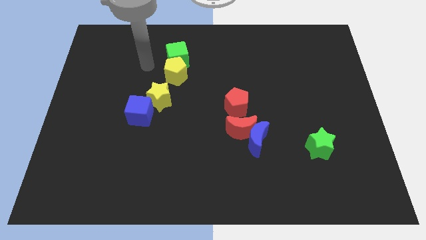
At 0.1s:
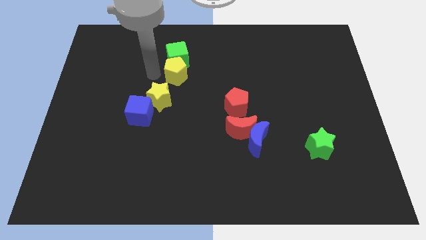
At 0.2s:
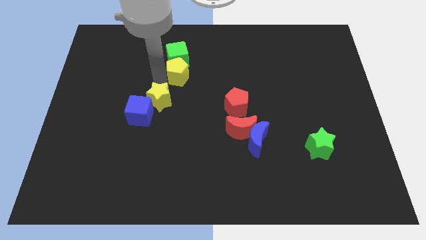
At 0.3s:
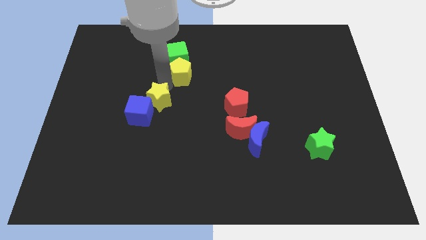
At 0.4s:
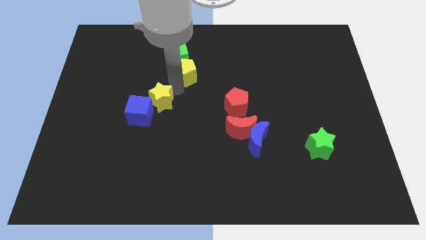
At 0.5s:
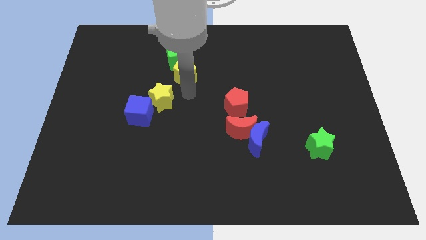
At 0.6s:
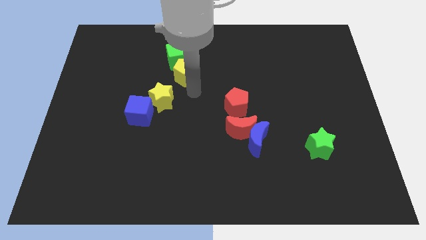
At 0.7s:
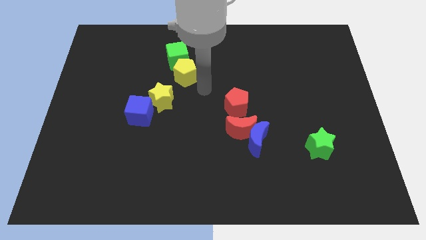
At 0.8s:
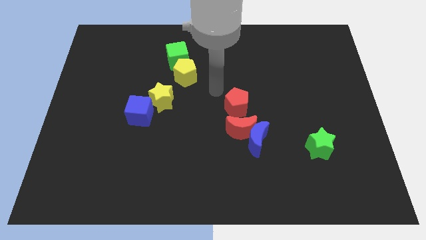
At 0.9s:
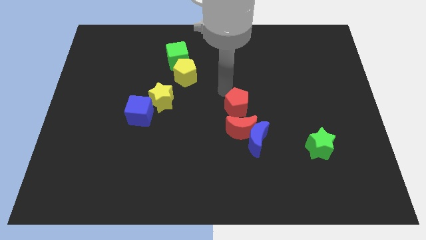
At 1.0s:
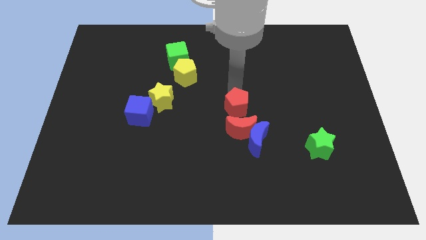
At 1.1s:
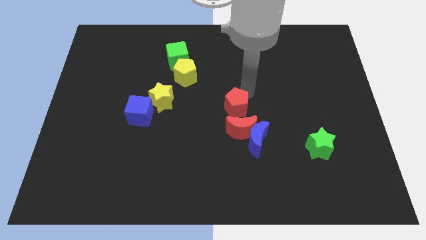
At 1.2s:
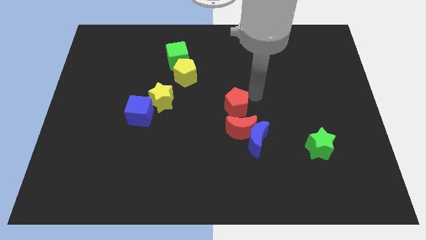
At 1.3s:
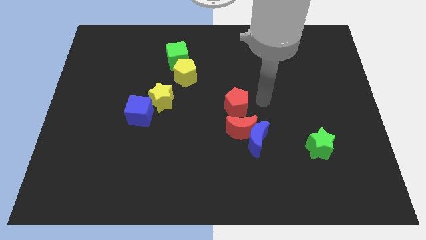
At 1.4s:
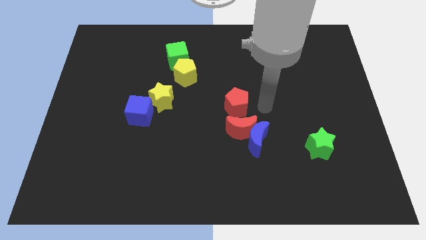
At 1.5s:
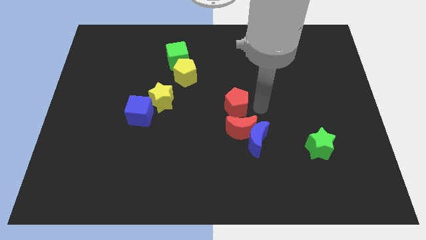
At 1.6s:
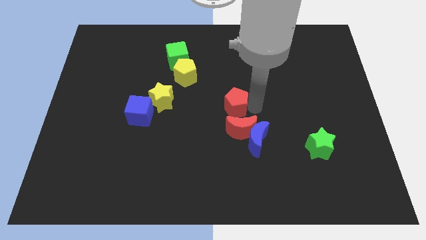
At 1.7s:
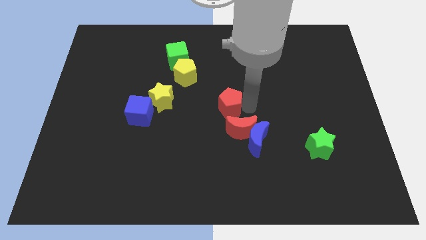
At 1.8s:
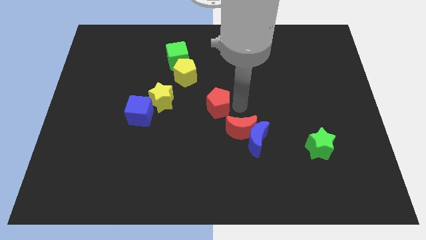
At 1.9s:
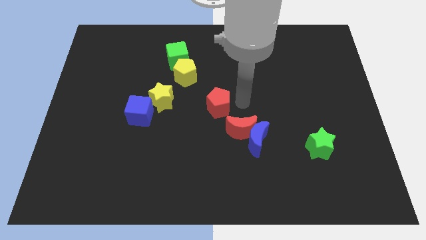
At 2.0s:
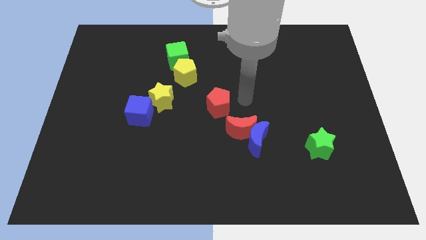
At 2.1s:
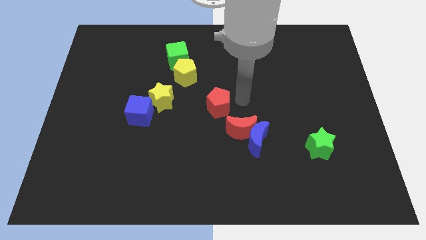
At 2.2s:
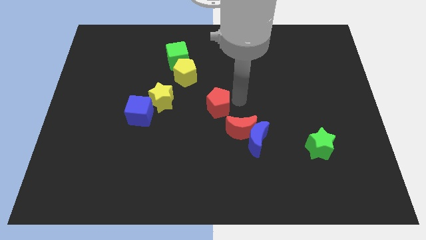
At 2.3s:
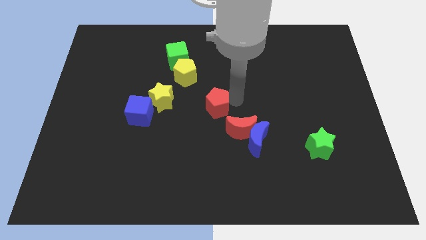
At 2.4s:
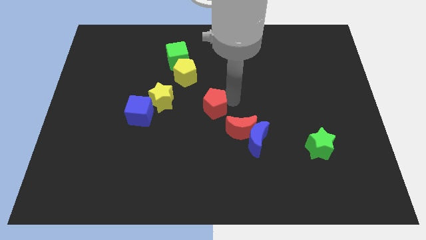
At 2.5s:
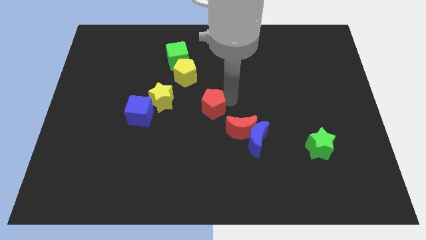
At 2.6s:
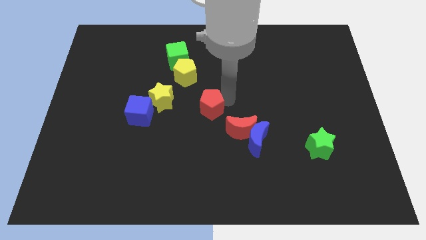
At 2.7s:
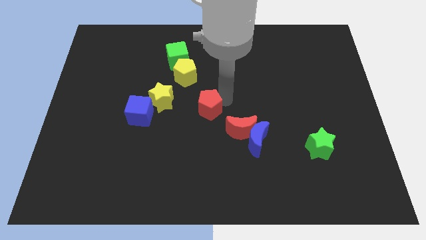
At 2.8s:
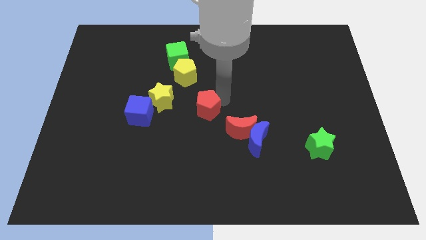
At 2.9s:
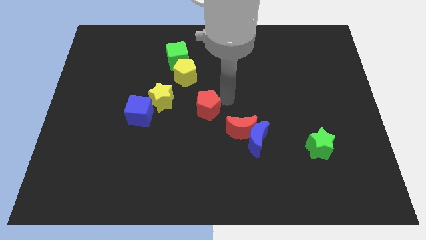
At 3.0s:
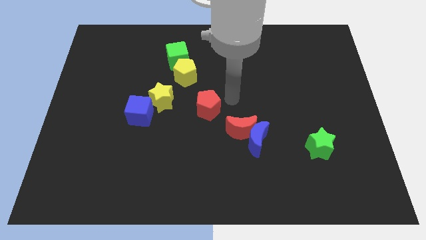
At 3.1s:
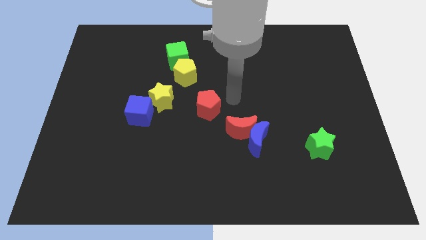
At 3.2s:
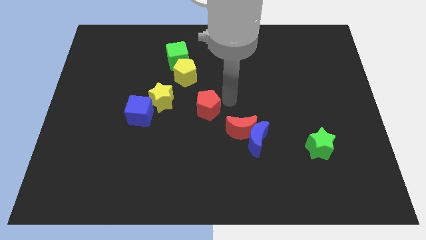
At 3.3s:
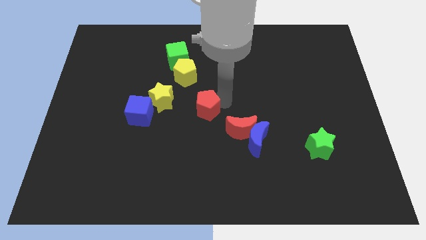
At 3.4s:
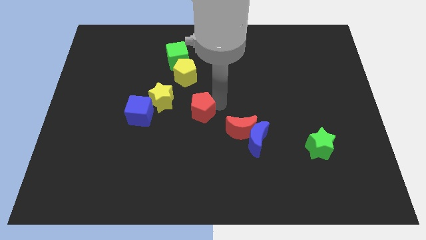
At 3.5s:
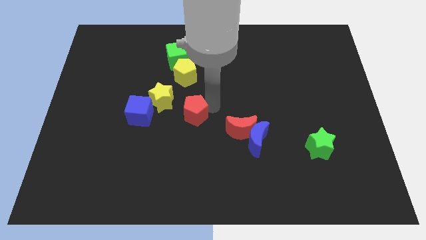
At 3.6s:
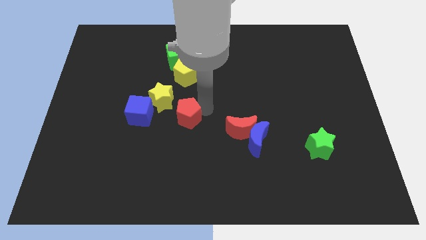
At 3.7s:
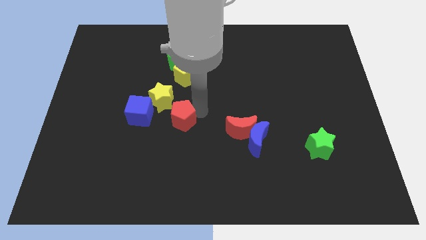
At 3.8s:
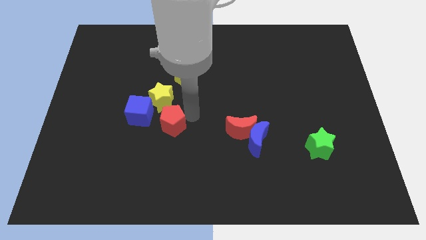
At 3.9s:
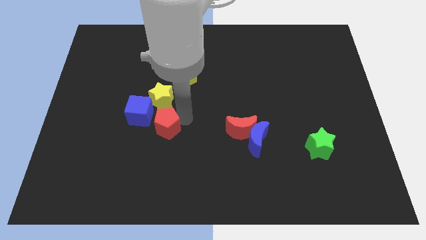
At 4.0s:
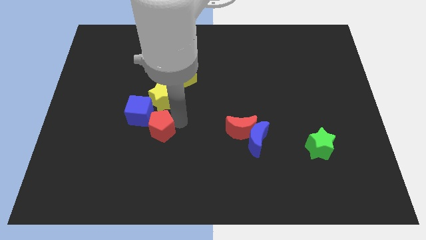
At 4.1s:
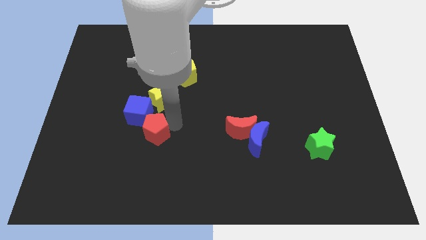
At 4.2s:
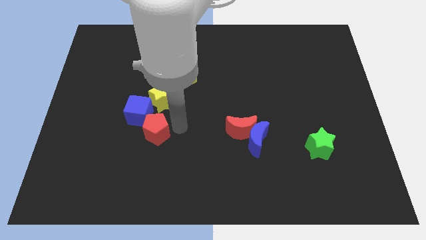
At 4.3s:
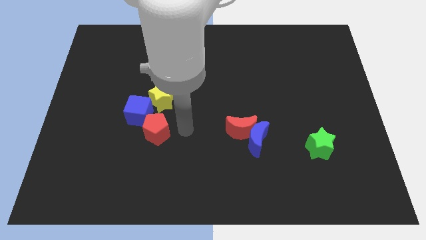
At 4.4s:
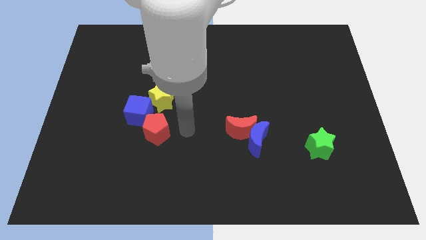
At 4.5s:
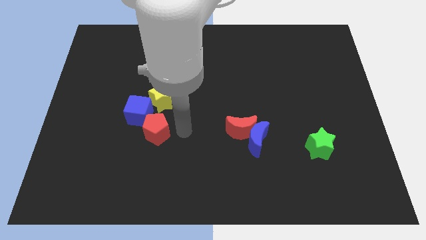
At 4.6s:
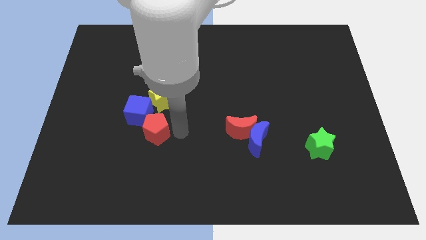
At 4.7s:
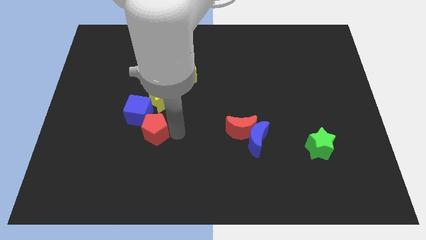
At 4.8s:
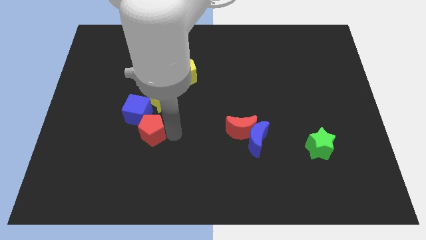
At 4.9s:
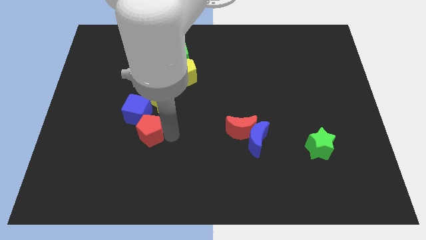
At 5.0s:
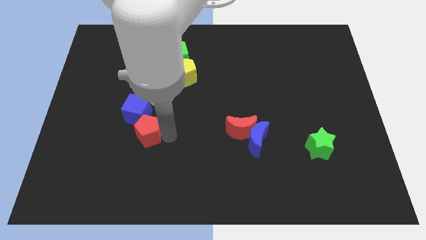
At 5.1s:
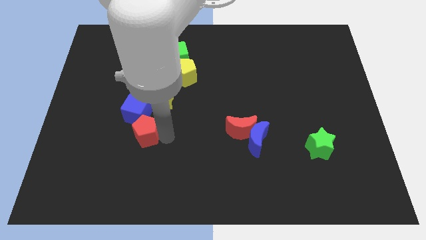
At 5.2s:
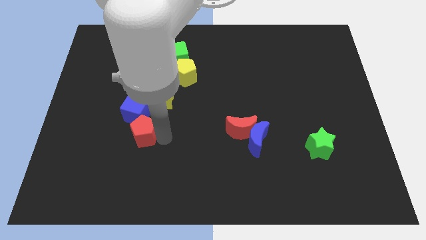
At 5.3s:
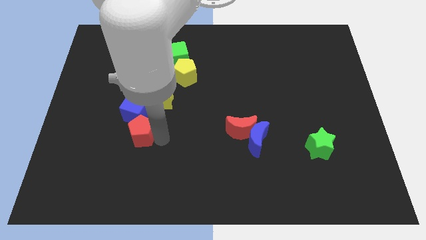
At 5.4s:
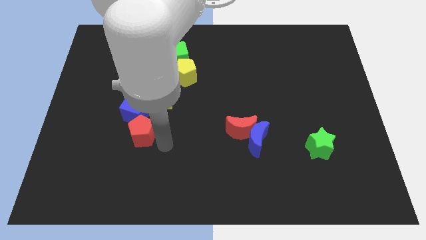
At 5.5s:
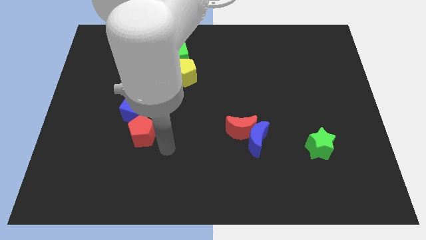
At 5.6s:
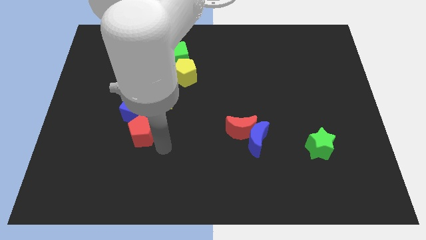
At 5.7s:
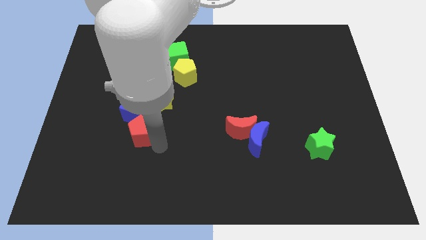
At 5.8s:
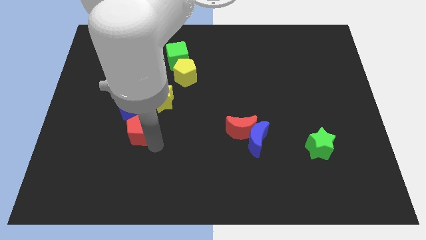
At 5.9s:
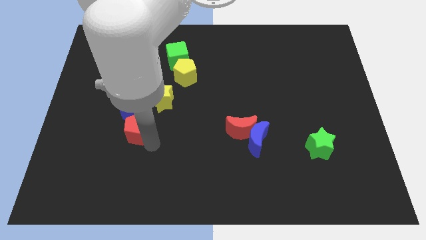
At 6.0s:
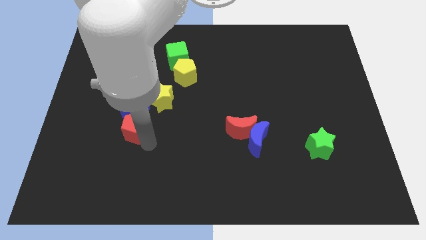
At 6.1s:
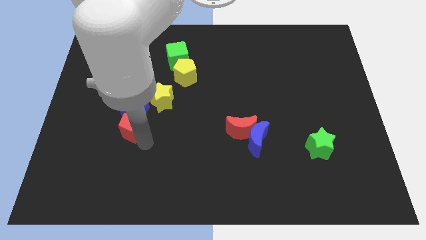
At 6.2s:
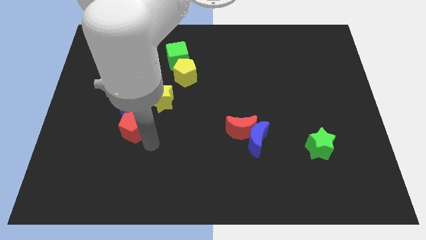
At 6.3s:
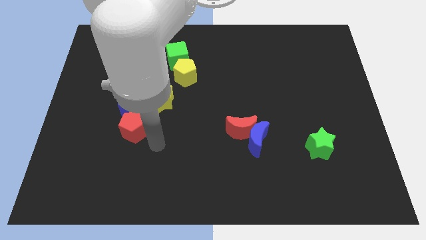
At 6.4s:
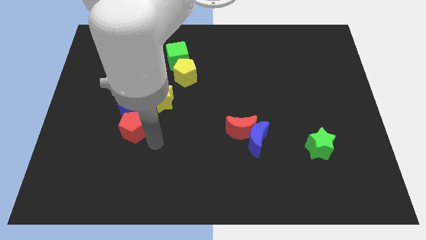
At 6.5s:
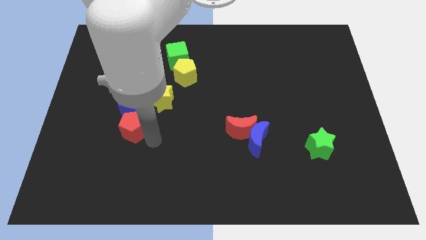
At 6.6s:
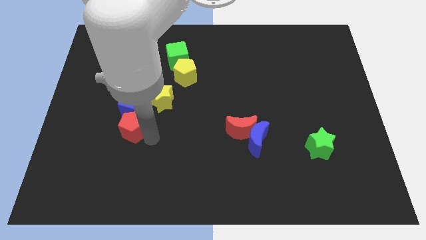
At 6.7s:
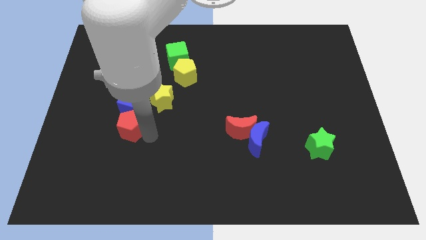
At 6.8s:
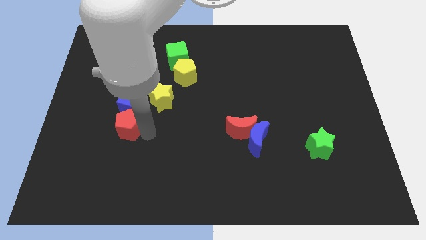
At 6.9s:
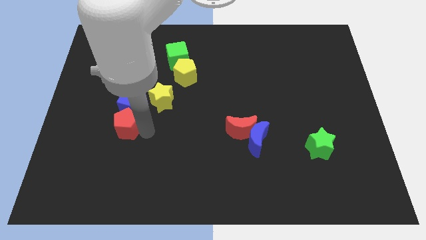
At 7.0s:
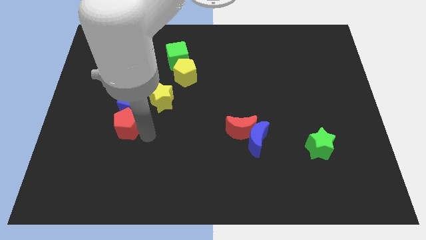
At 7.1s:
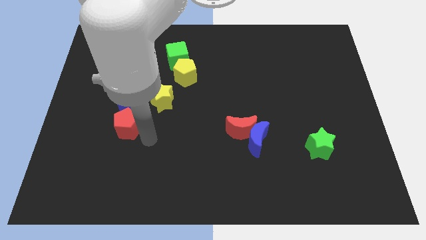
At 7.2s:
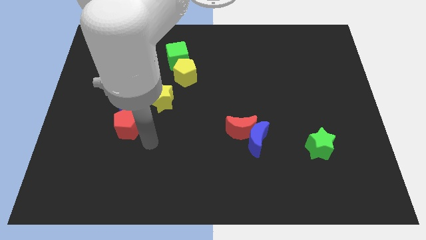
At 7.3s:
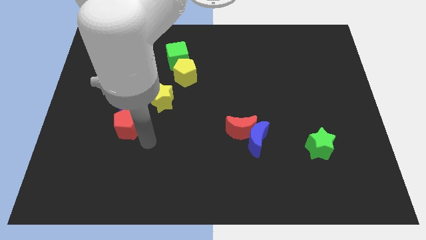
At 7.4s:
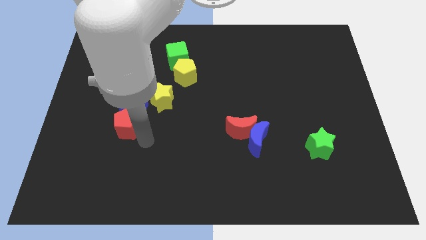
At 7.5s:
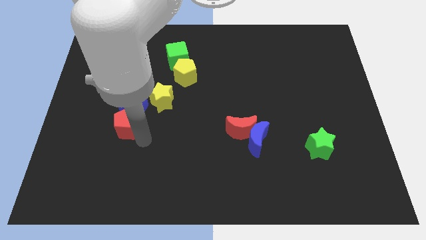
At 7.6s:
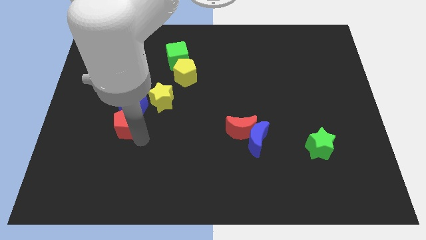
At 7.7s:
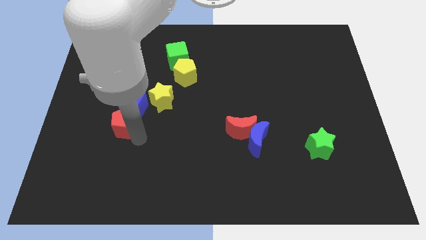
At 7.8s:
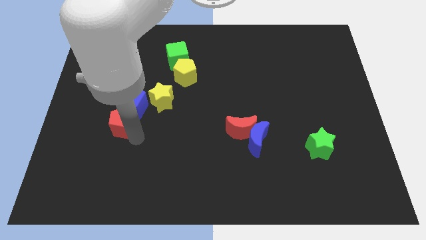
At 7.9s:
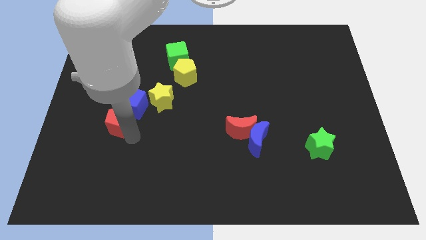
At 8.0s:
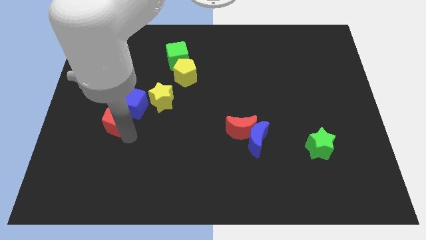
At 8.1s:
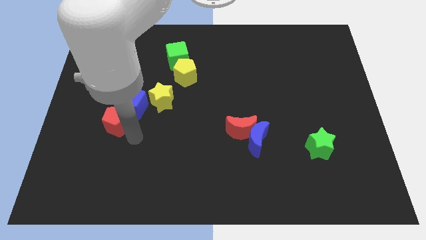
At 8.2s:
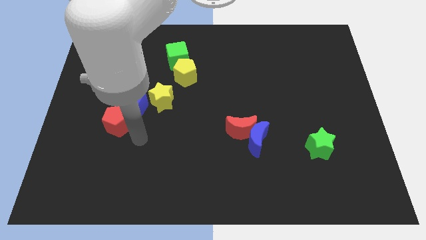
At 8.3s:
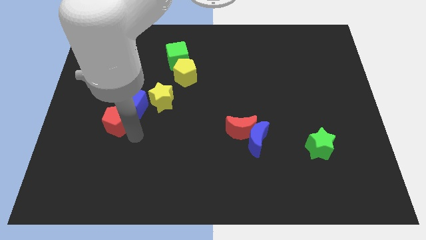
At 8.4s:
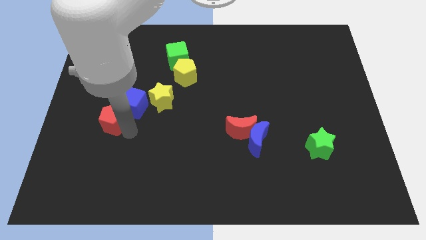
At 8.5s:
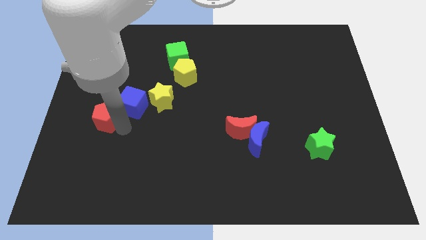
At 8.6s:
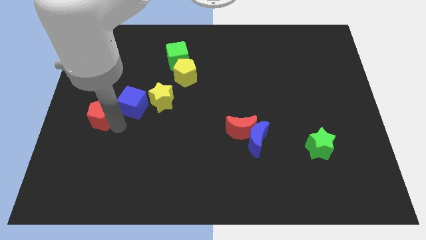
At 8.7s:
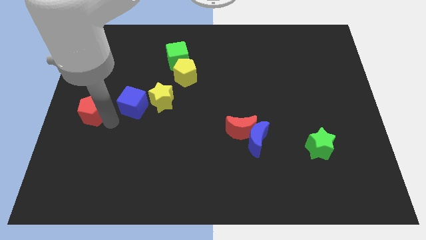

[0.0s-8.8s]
put the red pentagon to the left side of the board
